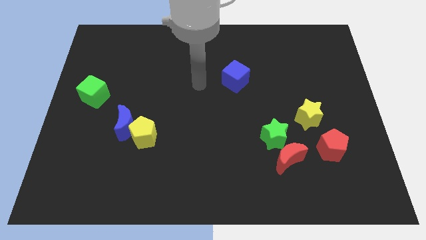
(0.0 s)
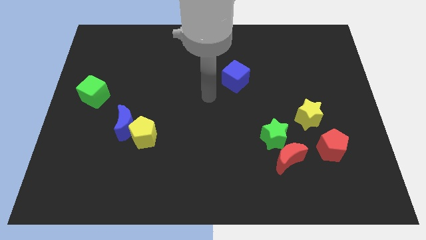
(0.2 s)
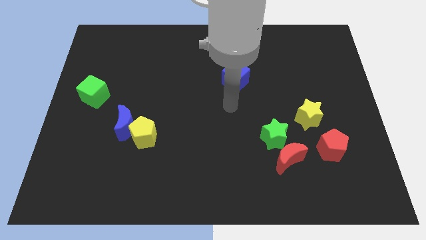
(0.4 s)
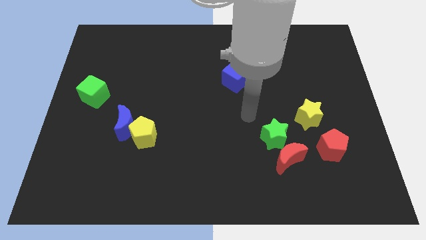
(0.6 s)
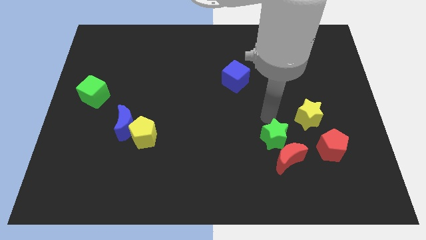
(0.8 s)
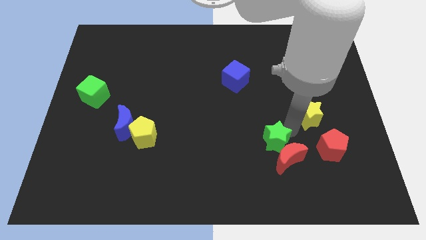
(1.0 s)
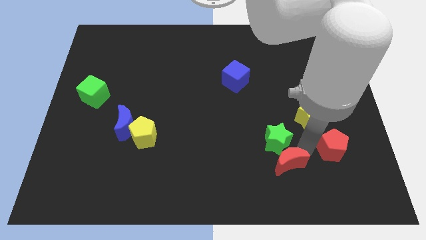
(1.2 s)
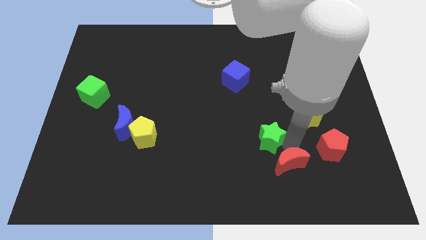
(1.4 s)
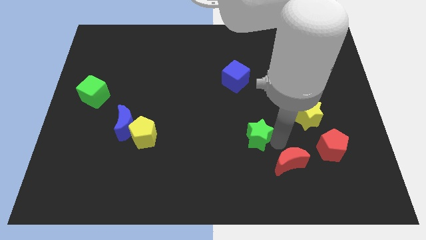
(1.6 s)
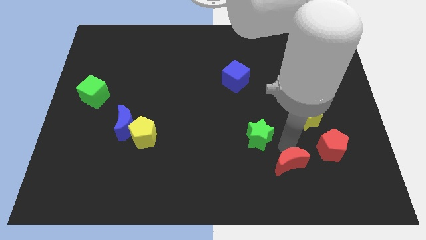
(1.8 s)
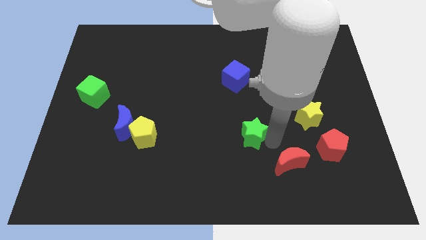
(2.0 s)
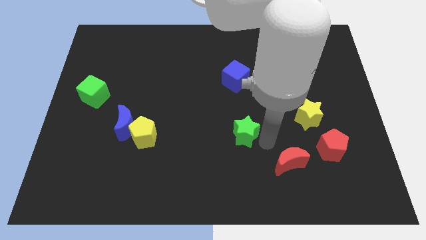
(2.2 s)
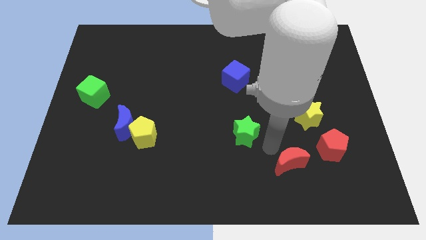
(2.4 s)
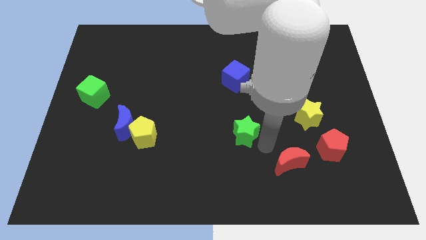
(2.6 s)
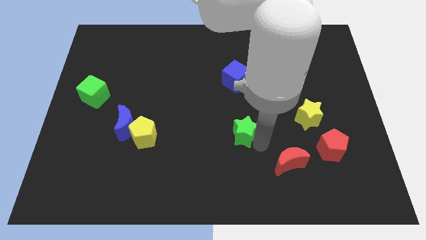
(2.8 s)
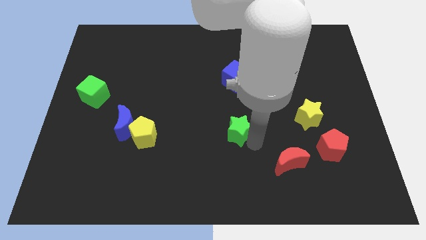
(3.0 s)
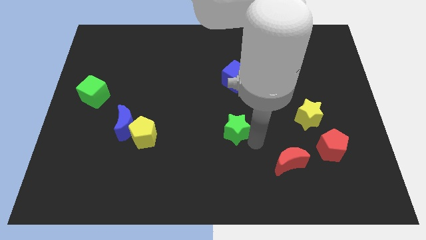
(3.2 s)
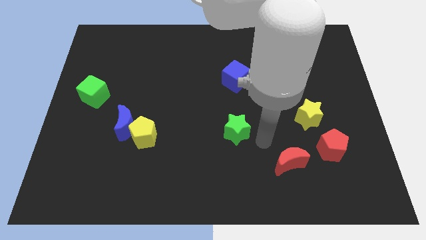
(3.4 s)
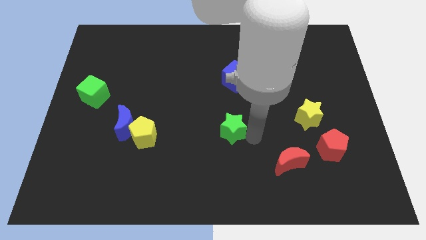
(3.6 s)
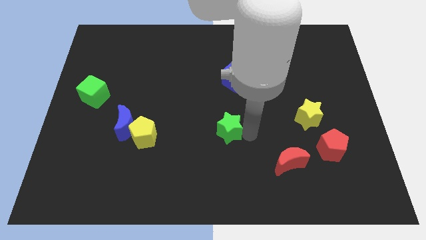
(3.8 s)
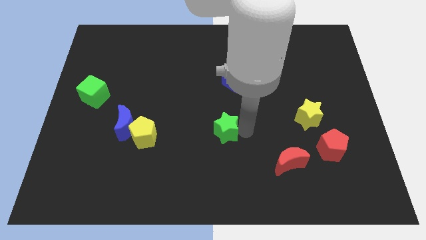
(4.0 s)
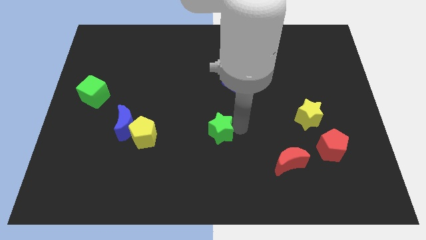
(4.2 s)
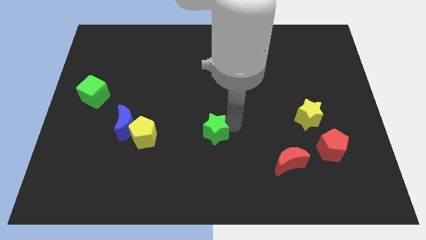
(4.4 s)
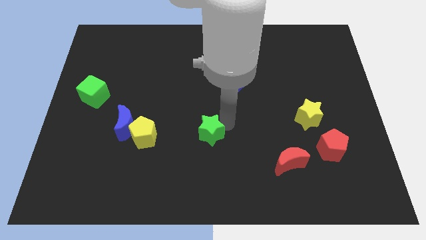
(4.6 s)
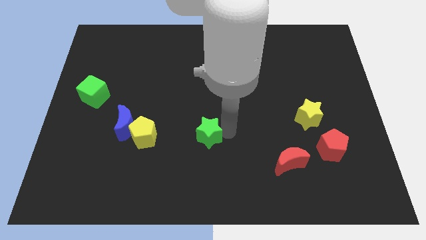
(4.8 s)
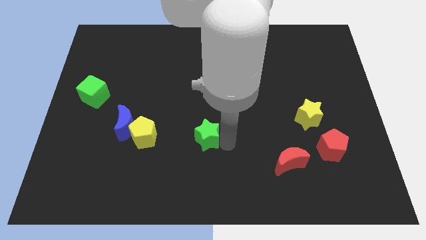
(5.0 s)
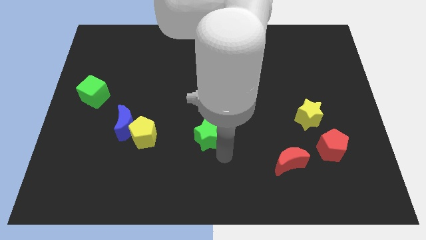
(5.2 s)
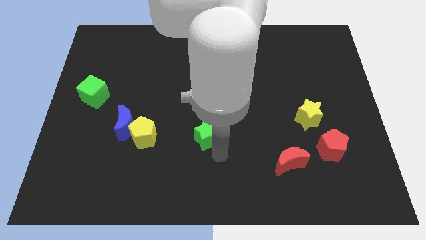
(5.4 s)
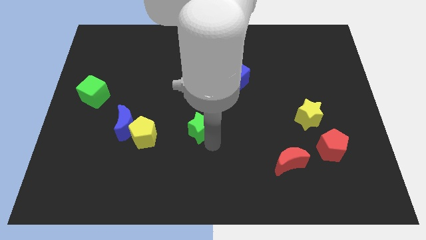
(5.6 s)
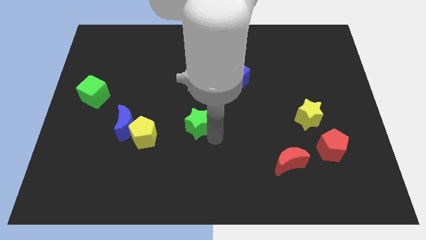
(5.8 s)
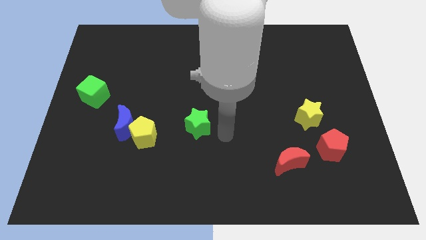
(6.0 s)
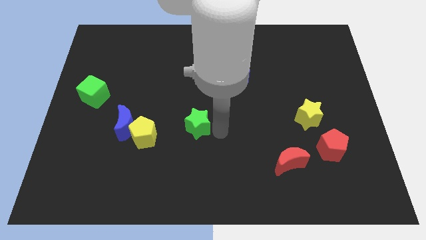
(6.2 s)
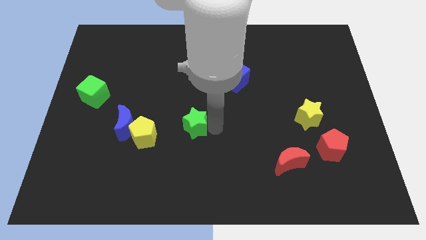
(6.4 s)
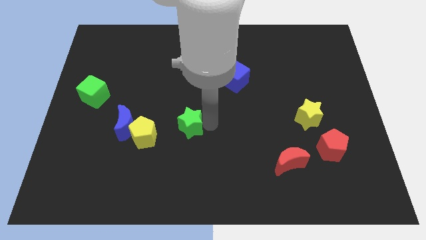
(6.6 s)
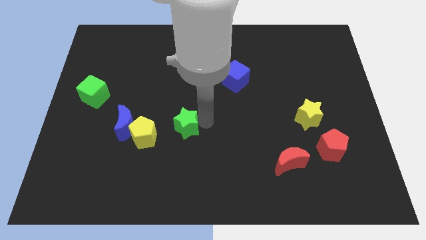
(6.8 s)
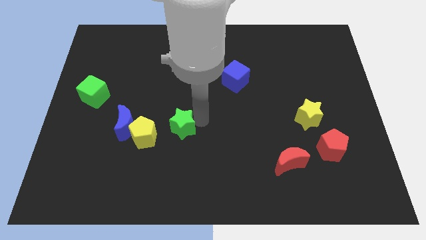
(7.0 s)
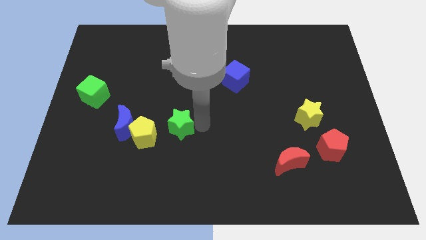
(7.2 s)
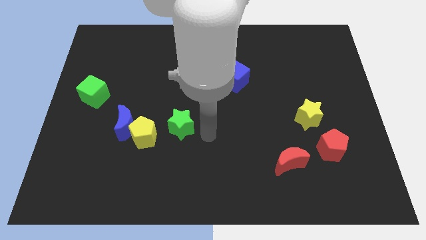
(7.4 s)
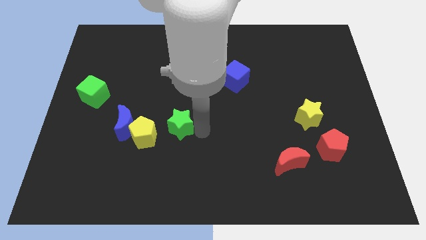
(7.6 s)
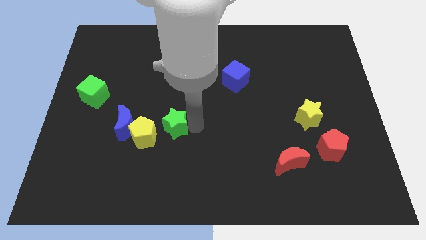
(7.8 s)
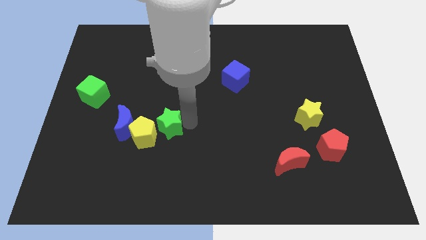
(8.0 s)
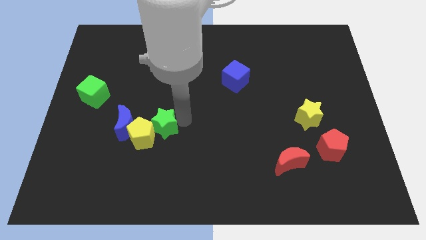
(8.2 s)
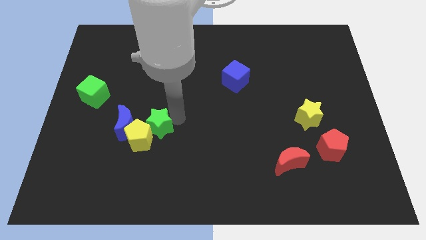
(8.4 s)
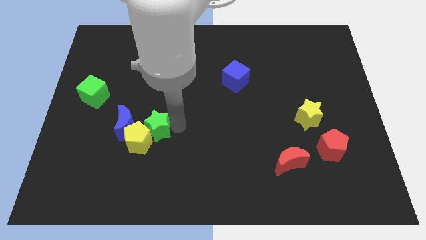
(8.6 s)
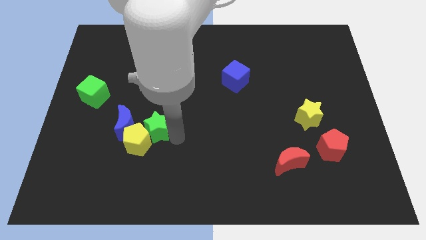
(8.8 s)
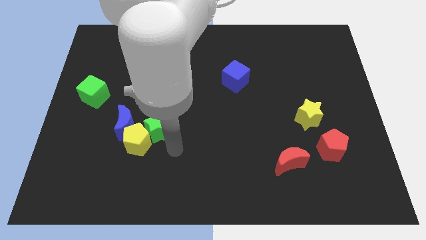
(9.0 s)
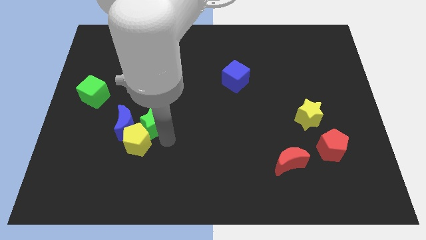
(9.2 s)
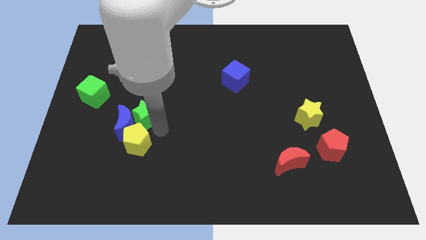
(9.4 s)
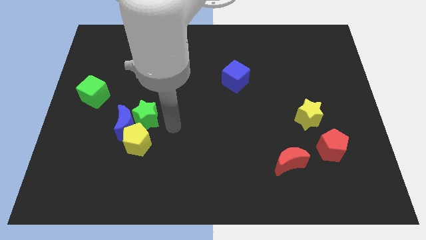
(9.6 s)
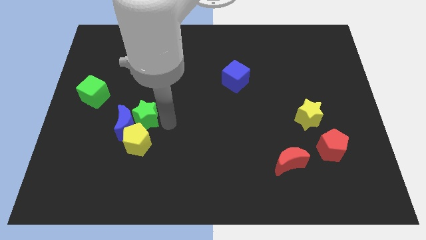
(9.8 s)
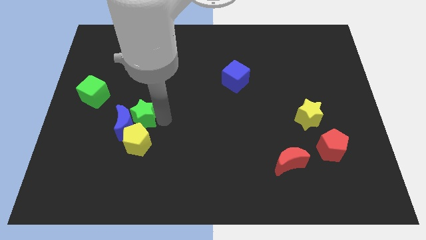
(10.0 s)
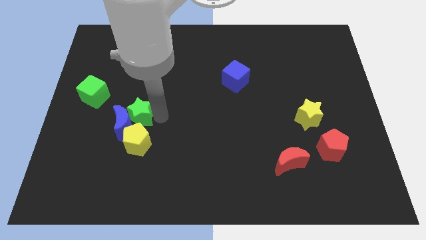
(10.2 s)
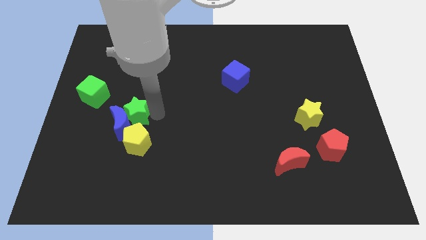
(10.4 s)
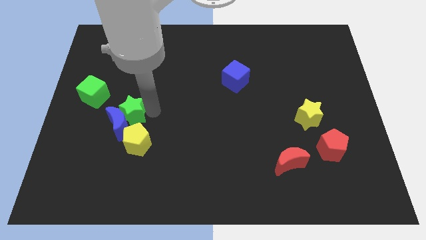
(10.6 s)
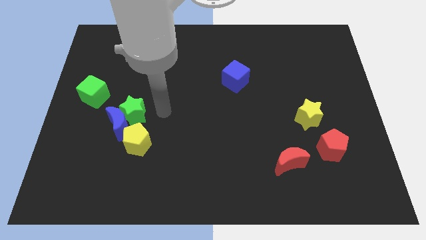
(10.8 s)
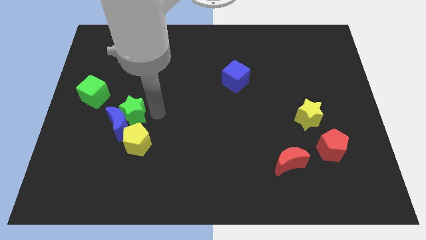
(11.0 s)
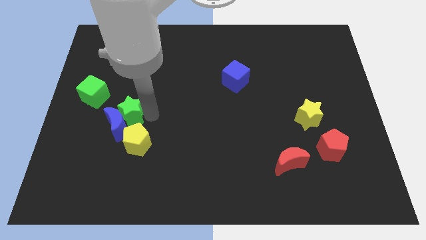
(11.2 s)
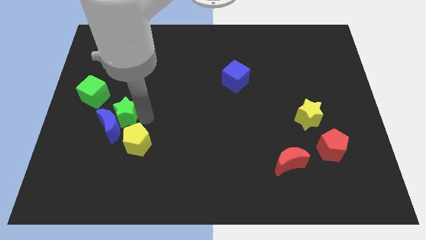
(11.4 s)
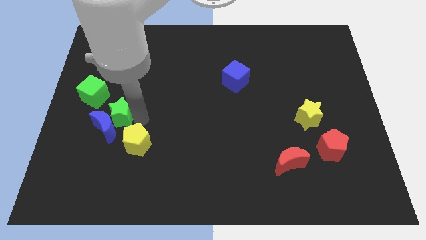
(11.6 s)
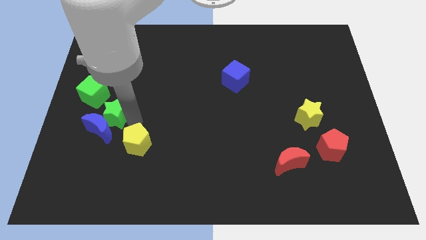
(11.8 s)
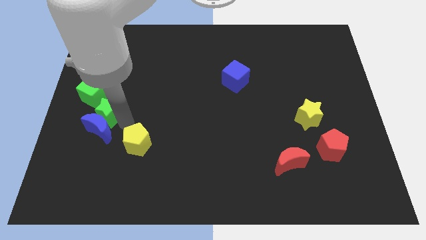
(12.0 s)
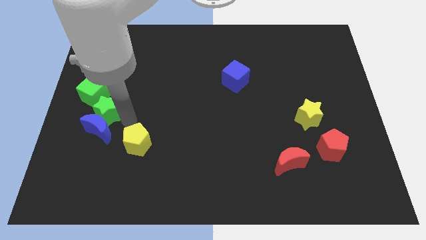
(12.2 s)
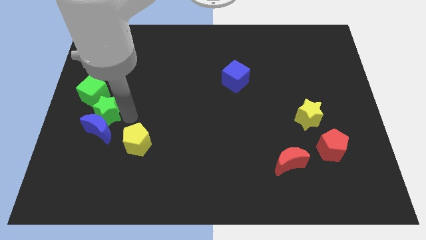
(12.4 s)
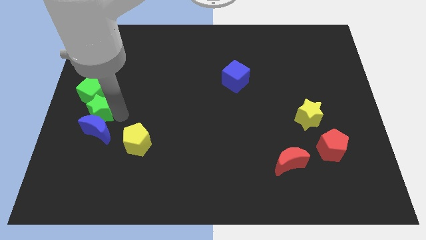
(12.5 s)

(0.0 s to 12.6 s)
slide the green star to the center left
